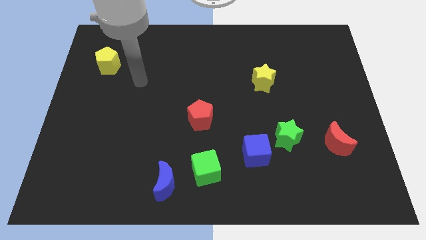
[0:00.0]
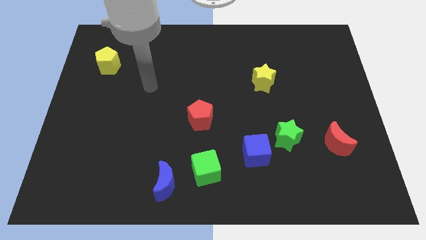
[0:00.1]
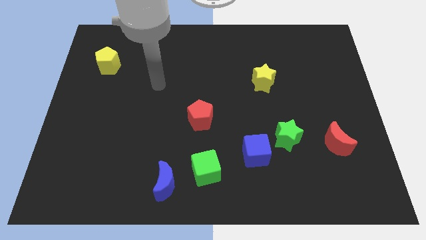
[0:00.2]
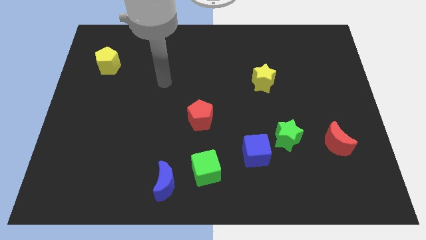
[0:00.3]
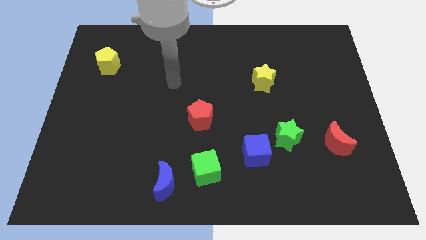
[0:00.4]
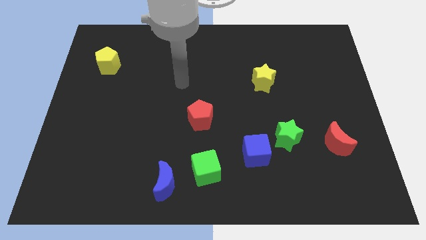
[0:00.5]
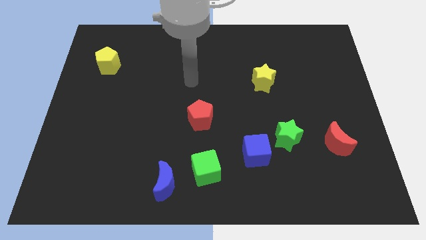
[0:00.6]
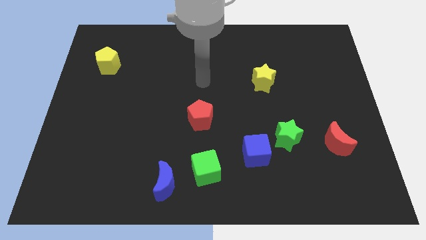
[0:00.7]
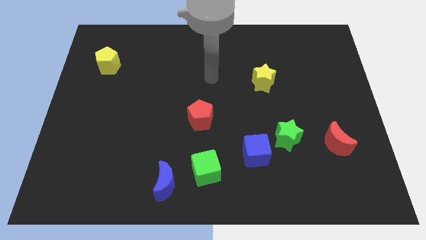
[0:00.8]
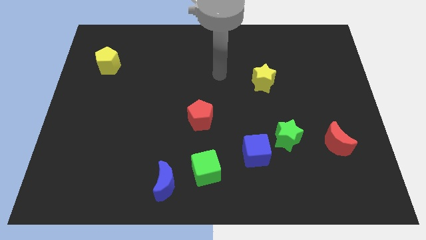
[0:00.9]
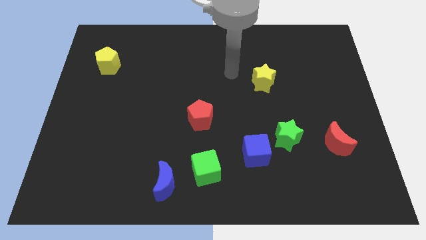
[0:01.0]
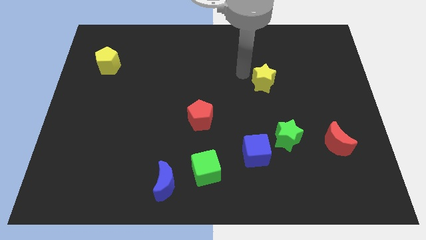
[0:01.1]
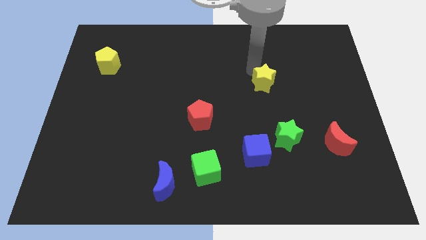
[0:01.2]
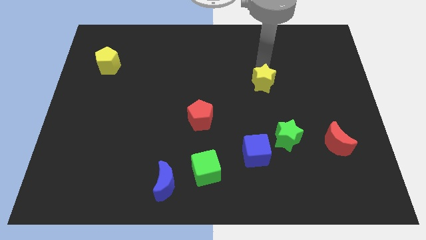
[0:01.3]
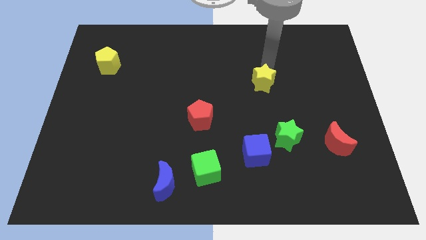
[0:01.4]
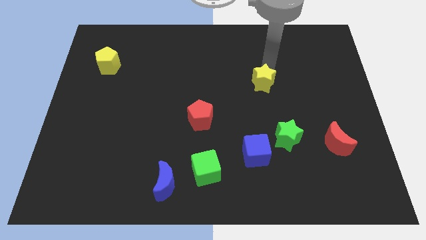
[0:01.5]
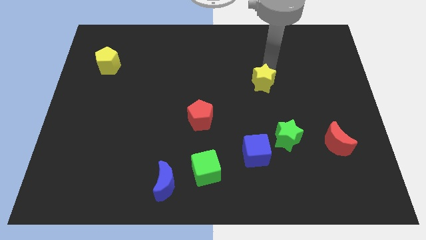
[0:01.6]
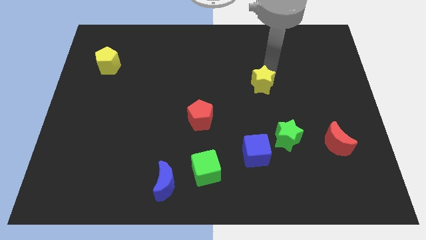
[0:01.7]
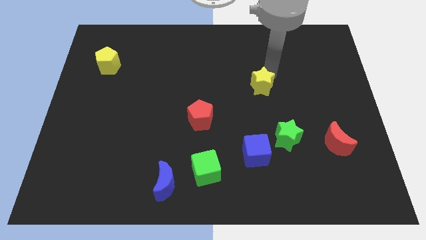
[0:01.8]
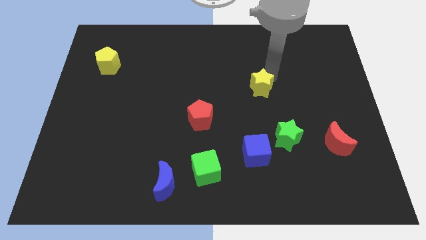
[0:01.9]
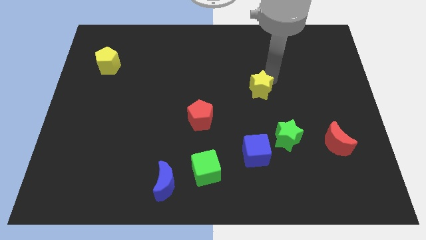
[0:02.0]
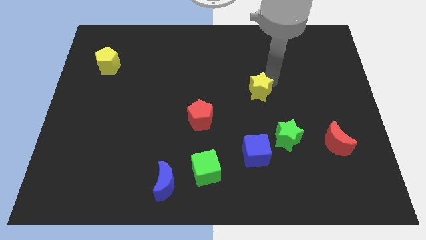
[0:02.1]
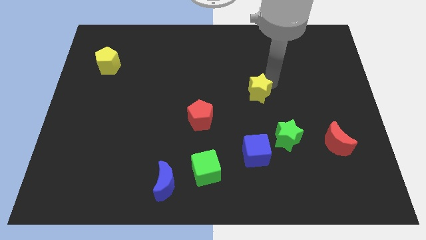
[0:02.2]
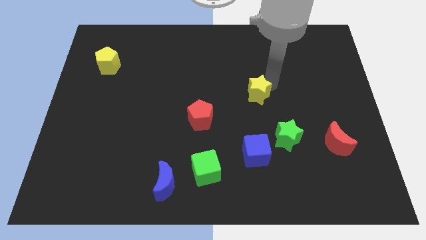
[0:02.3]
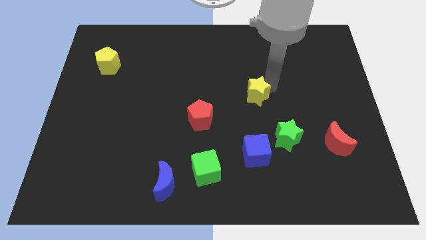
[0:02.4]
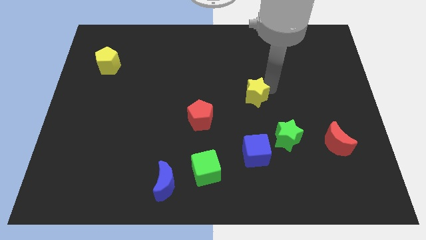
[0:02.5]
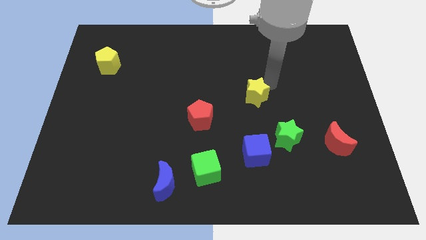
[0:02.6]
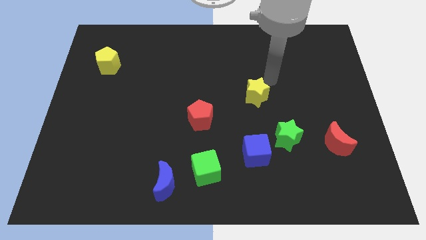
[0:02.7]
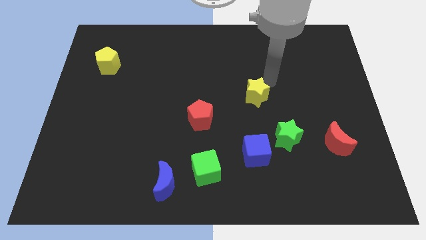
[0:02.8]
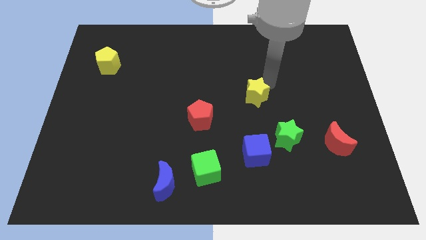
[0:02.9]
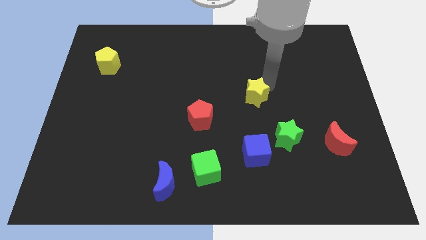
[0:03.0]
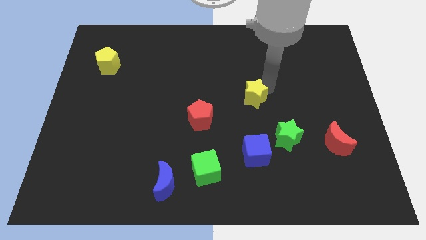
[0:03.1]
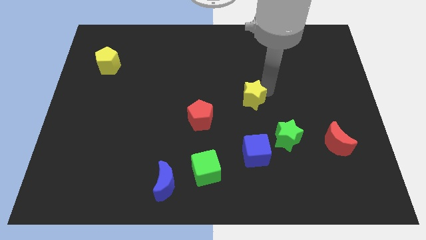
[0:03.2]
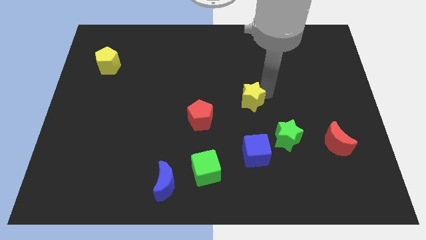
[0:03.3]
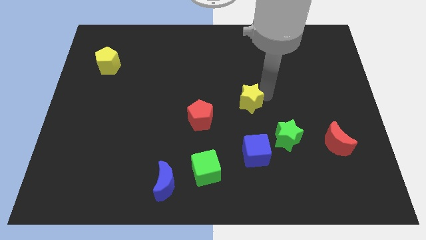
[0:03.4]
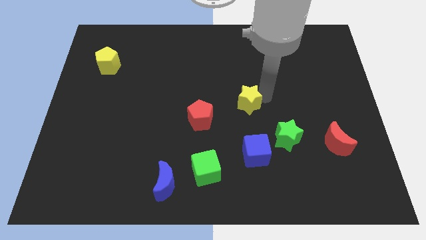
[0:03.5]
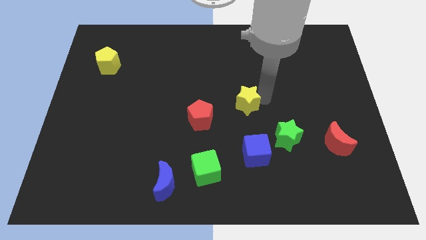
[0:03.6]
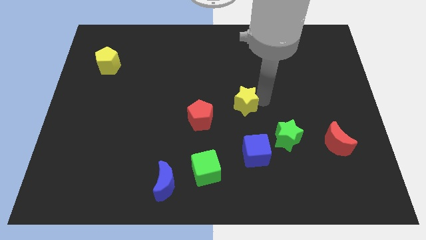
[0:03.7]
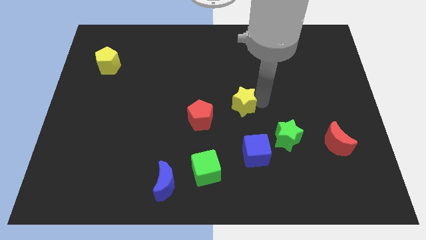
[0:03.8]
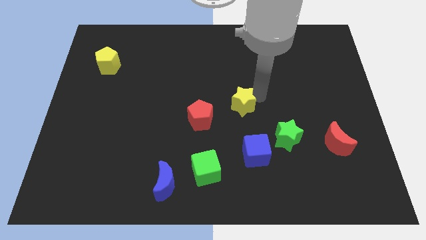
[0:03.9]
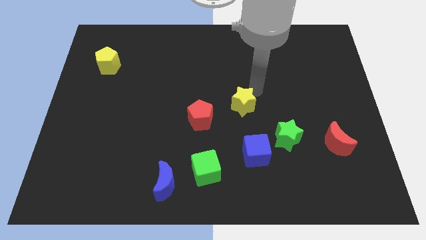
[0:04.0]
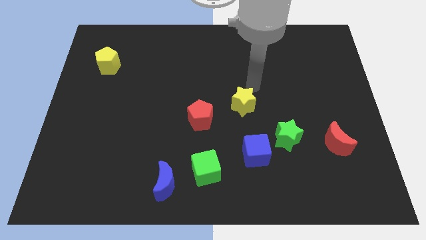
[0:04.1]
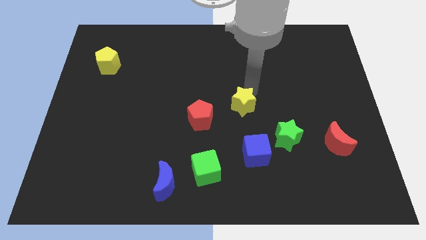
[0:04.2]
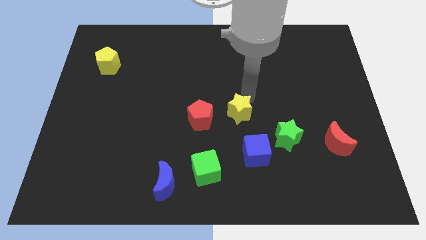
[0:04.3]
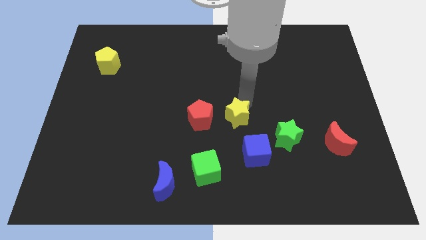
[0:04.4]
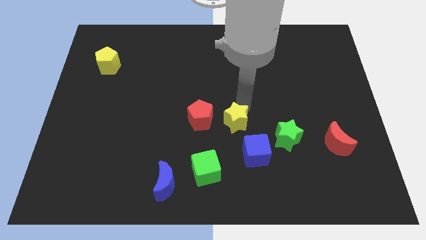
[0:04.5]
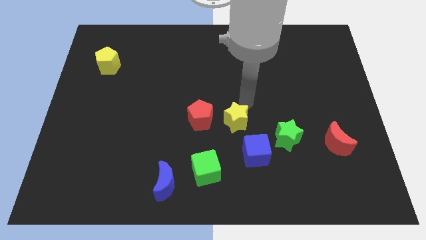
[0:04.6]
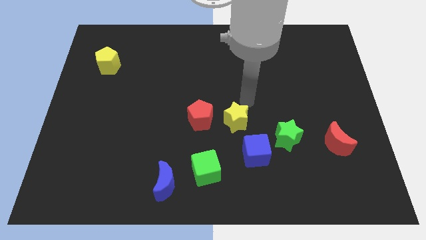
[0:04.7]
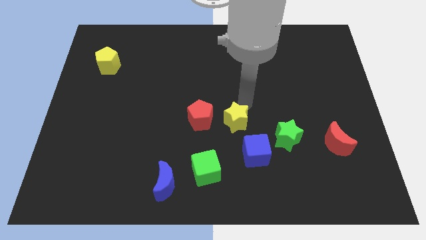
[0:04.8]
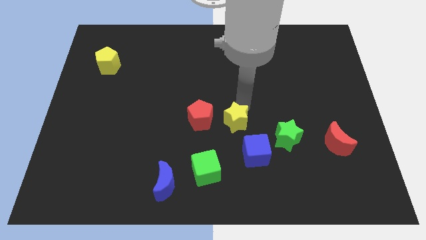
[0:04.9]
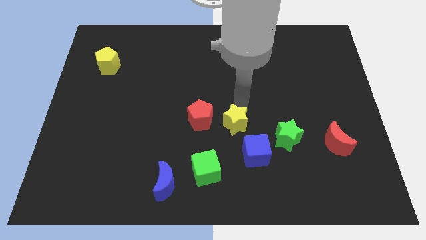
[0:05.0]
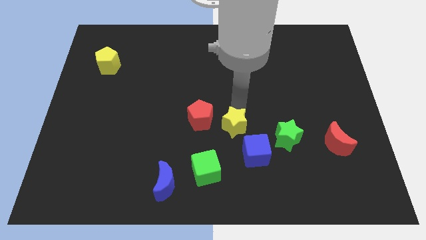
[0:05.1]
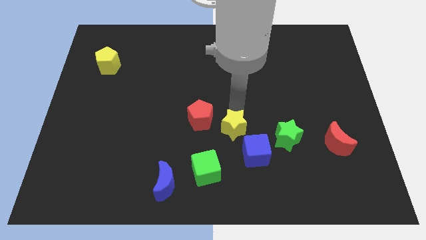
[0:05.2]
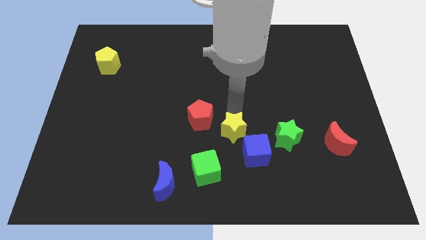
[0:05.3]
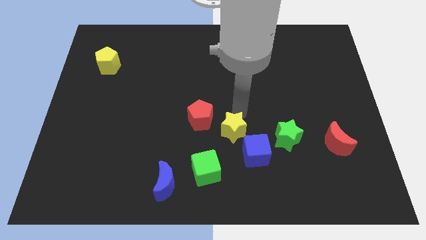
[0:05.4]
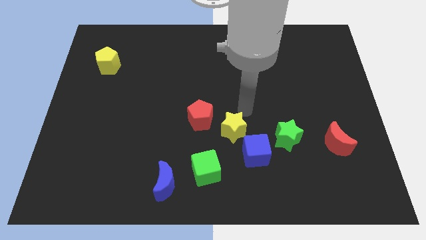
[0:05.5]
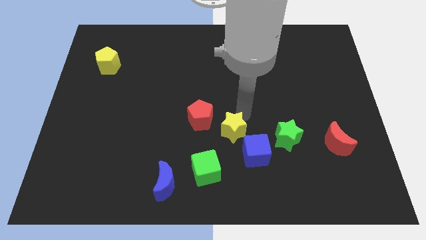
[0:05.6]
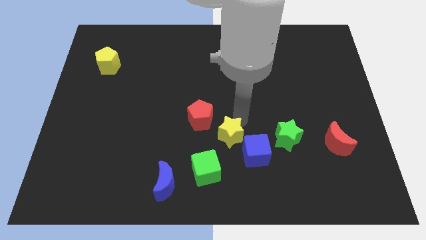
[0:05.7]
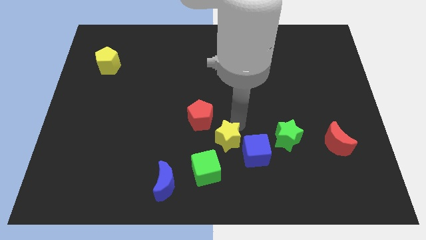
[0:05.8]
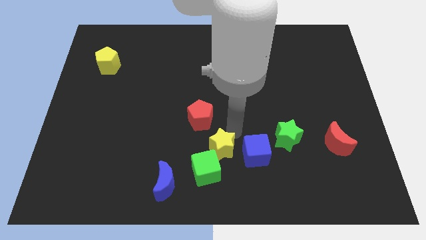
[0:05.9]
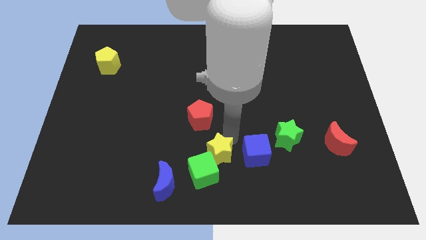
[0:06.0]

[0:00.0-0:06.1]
push the yellow star close to the green cube

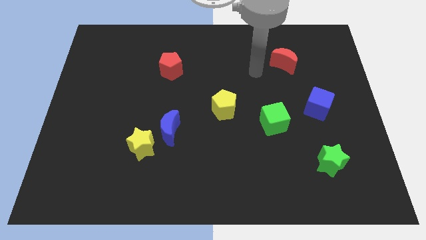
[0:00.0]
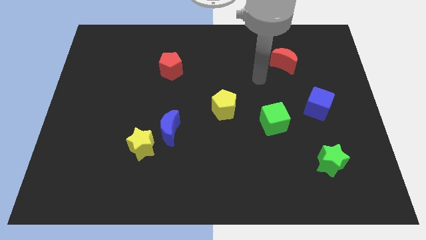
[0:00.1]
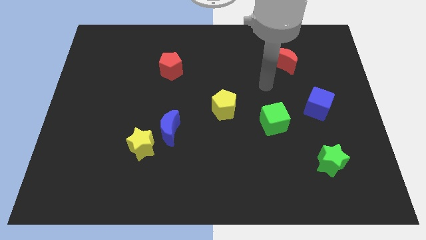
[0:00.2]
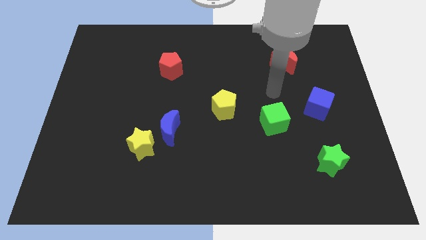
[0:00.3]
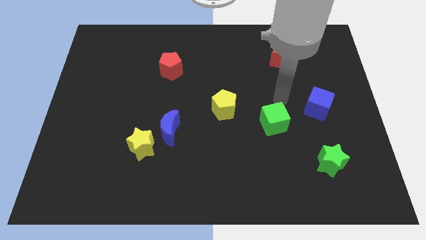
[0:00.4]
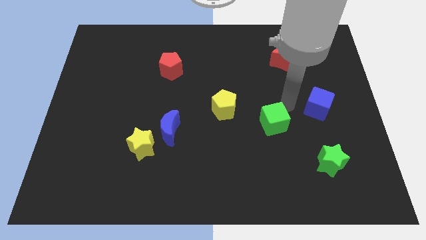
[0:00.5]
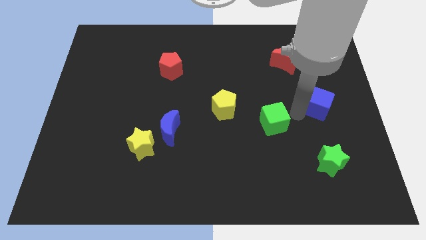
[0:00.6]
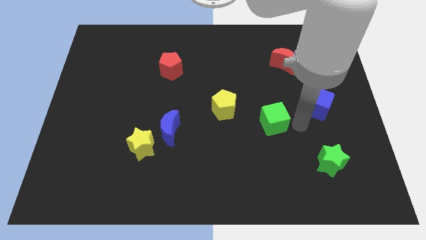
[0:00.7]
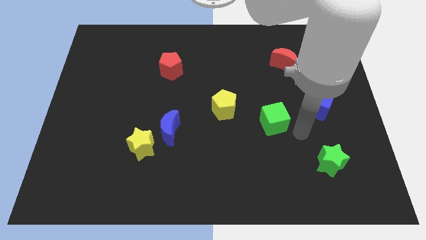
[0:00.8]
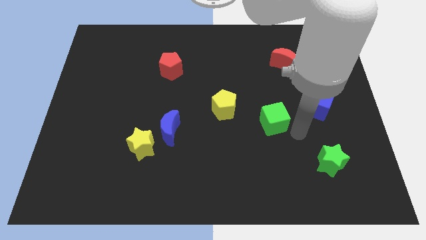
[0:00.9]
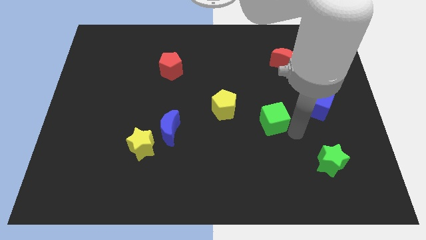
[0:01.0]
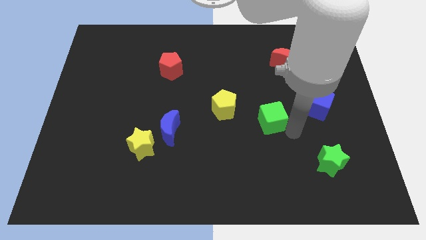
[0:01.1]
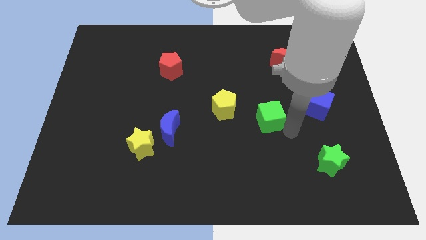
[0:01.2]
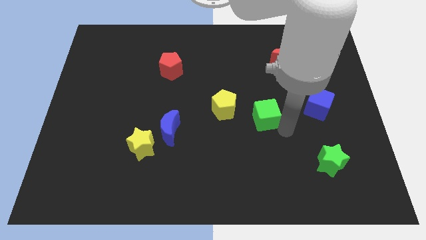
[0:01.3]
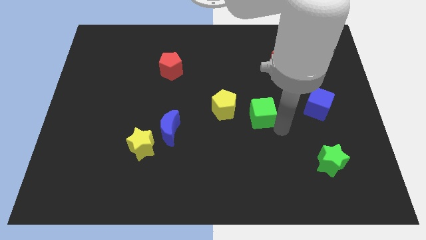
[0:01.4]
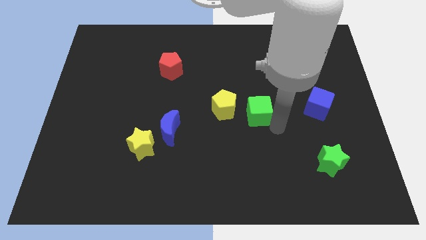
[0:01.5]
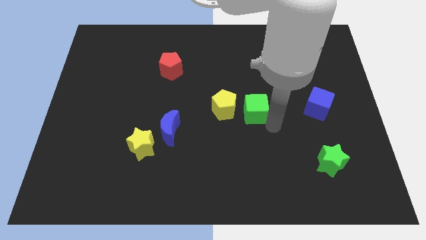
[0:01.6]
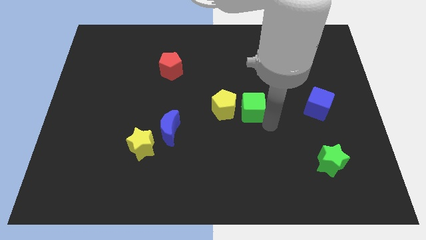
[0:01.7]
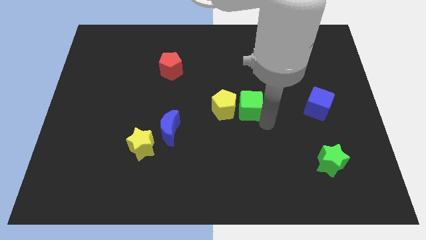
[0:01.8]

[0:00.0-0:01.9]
push the green cube to the yellow pentagon
